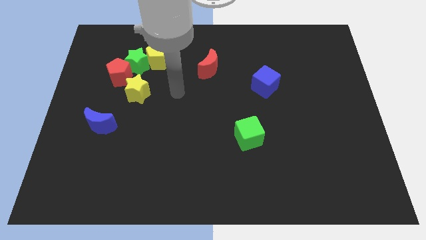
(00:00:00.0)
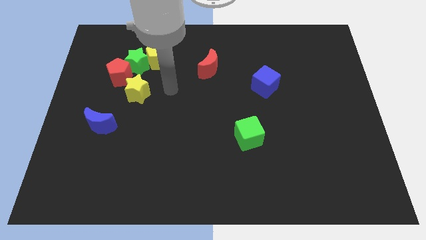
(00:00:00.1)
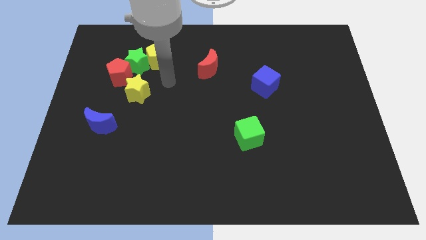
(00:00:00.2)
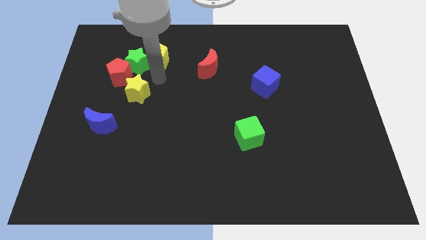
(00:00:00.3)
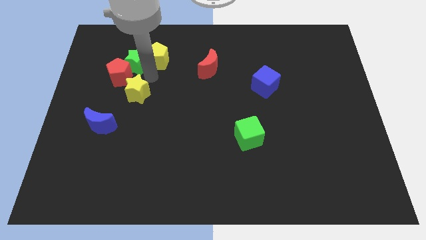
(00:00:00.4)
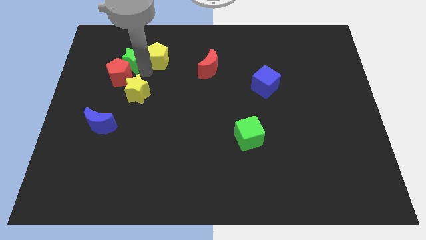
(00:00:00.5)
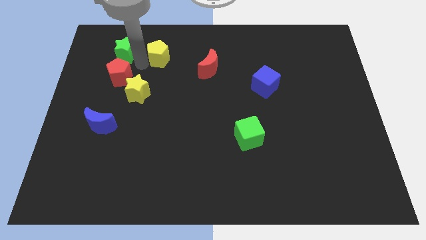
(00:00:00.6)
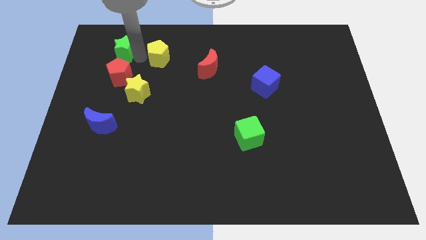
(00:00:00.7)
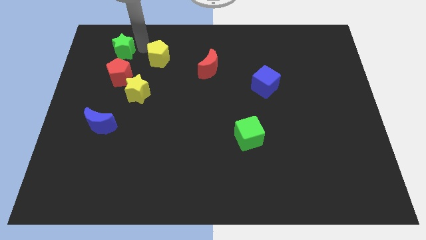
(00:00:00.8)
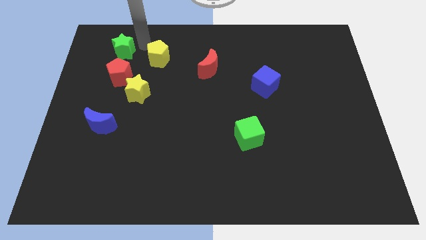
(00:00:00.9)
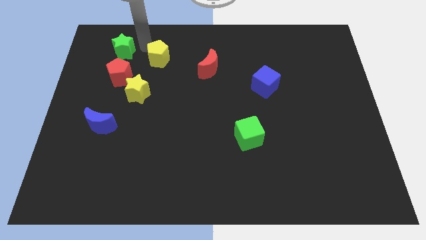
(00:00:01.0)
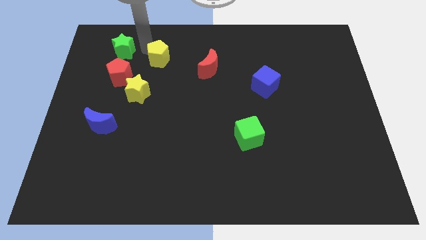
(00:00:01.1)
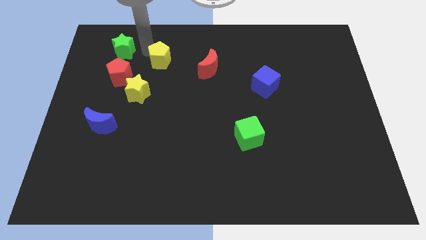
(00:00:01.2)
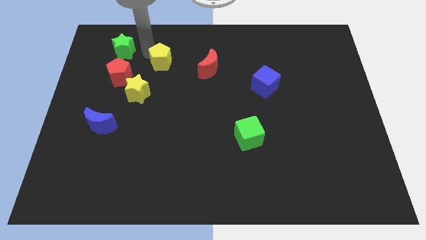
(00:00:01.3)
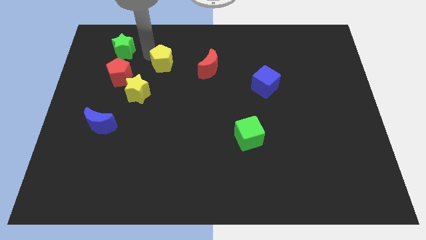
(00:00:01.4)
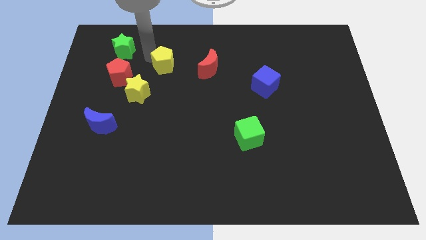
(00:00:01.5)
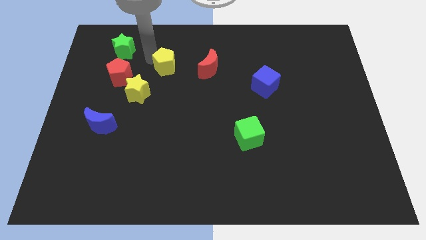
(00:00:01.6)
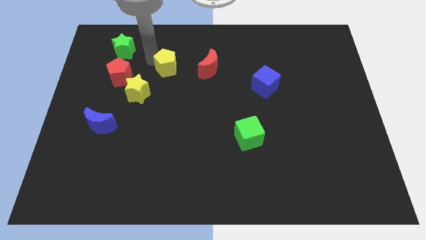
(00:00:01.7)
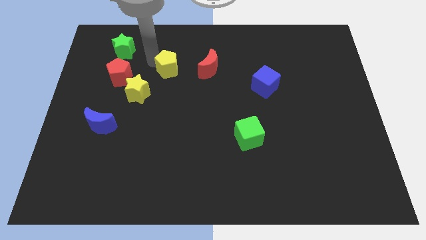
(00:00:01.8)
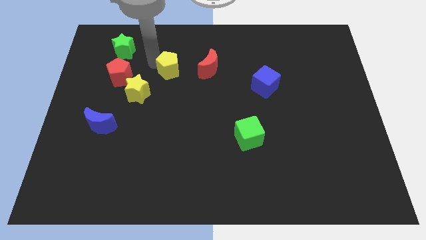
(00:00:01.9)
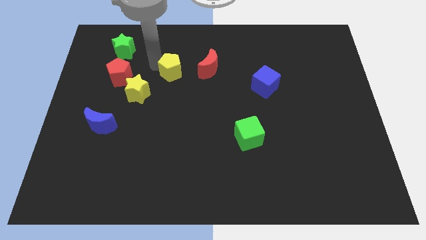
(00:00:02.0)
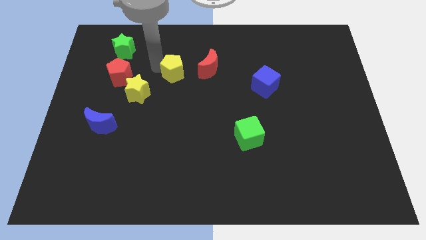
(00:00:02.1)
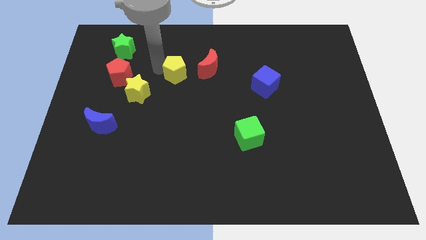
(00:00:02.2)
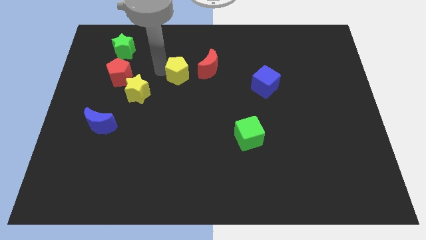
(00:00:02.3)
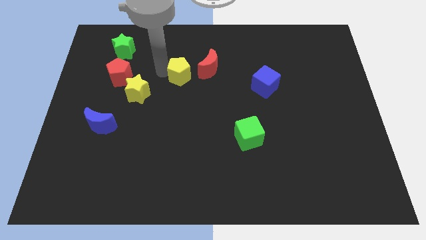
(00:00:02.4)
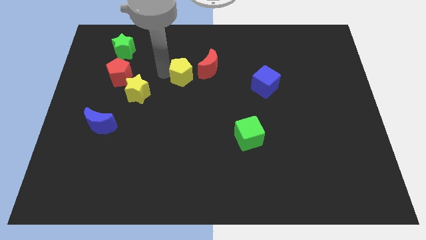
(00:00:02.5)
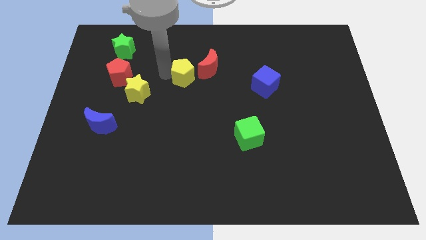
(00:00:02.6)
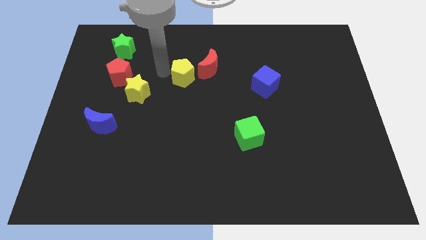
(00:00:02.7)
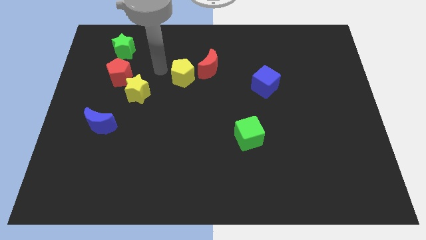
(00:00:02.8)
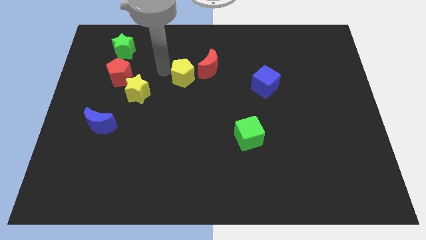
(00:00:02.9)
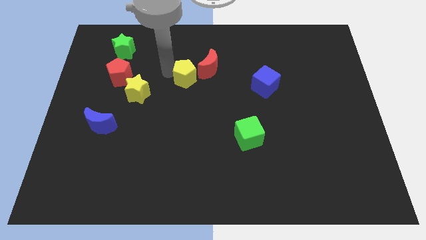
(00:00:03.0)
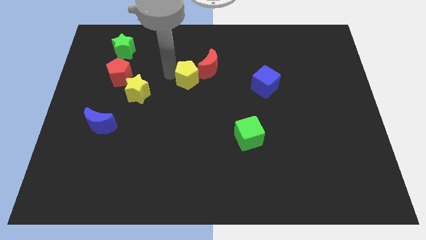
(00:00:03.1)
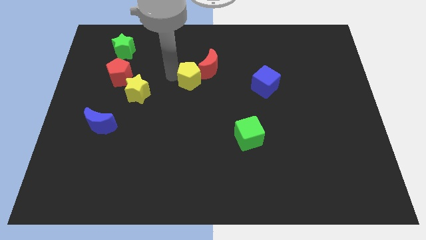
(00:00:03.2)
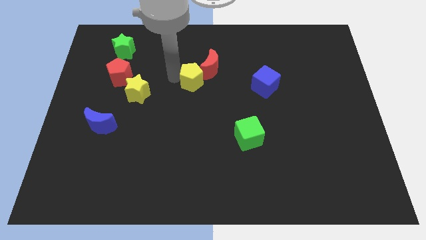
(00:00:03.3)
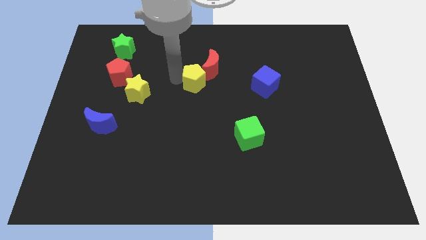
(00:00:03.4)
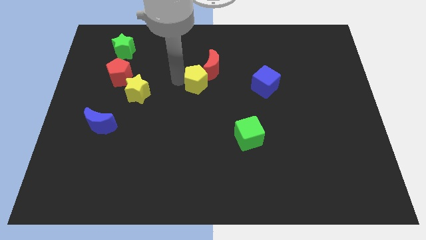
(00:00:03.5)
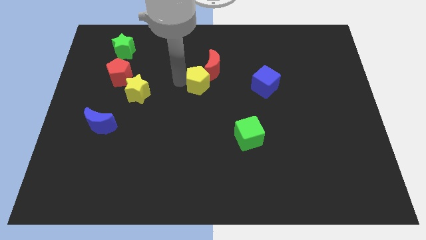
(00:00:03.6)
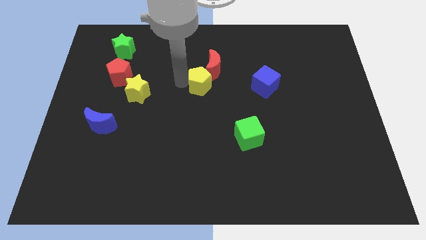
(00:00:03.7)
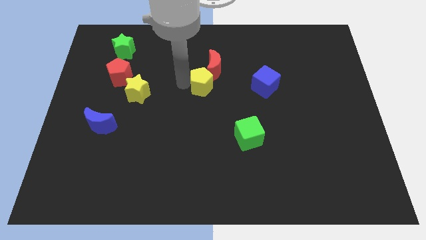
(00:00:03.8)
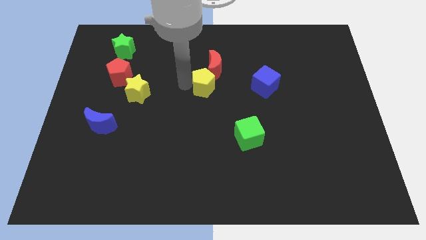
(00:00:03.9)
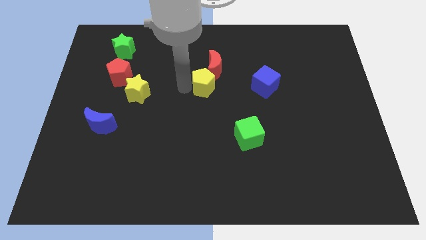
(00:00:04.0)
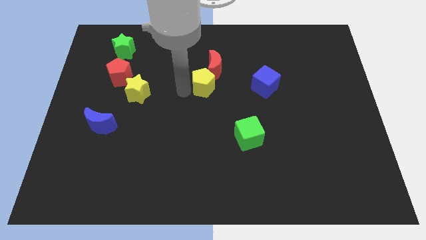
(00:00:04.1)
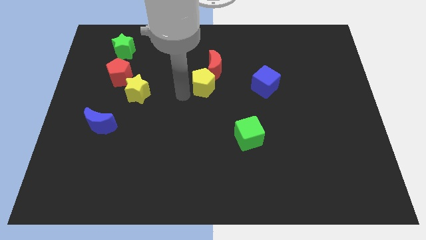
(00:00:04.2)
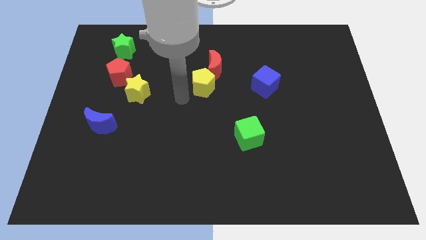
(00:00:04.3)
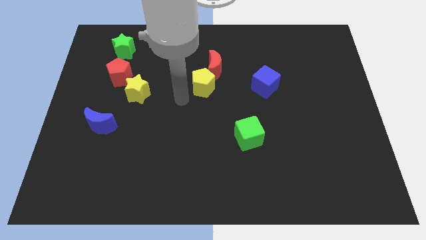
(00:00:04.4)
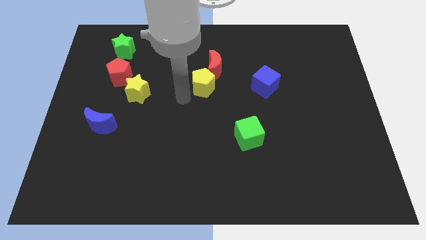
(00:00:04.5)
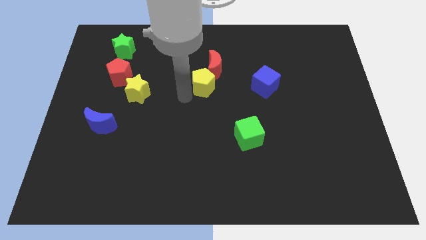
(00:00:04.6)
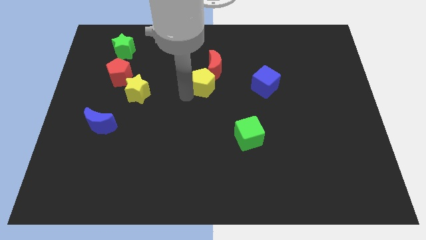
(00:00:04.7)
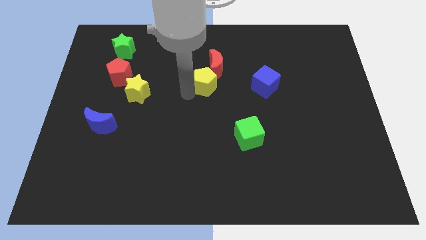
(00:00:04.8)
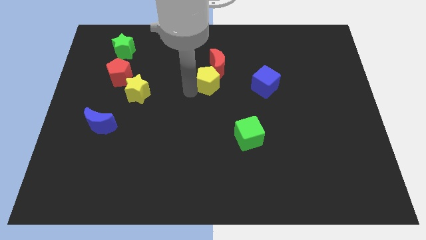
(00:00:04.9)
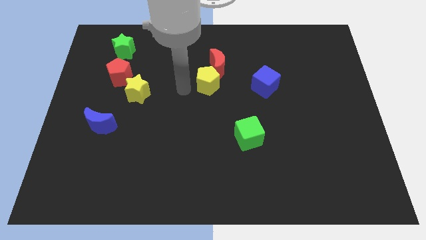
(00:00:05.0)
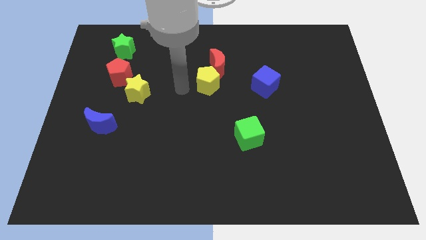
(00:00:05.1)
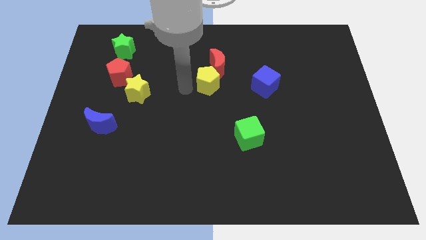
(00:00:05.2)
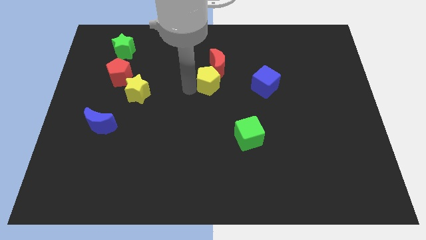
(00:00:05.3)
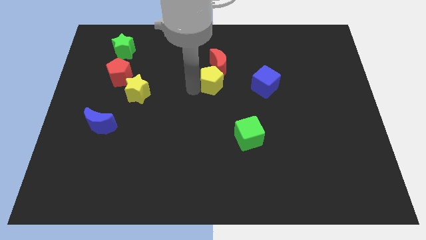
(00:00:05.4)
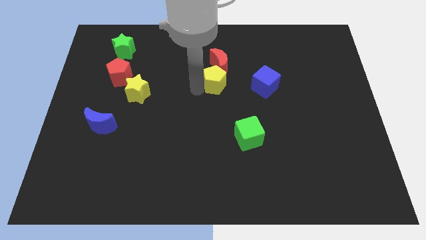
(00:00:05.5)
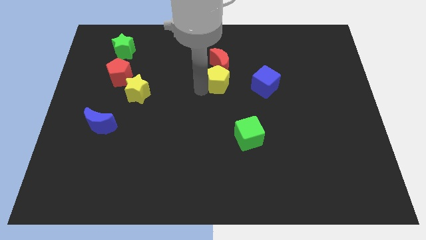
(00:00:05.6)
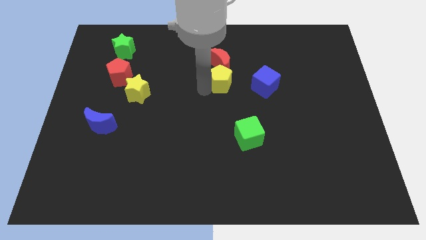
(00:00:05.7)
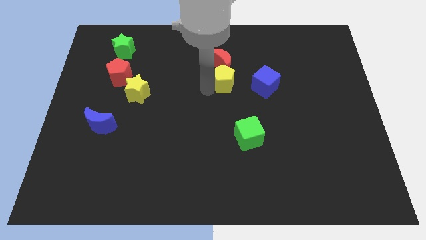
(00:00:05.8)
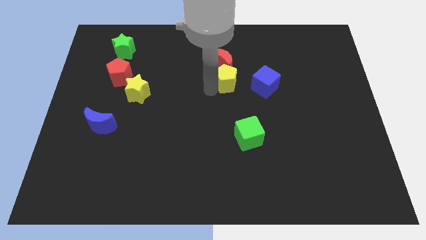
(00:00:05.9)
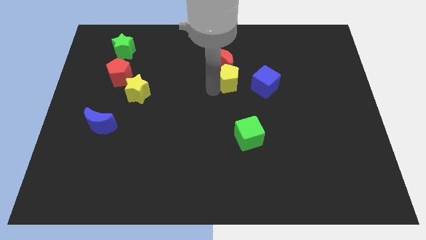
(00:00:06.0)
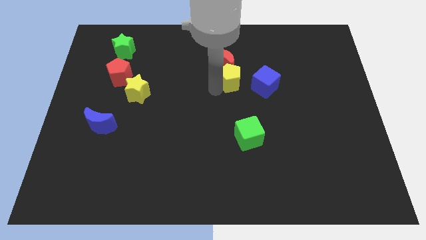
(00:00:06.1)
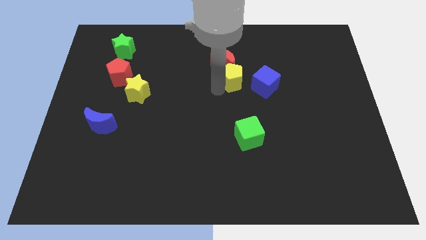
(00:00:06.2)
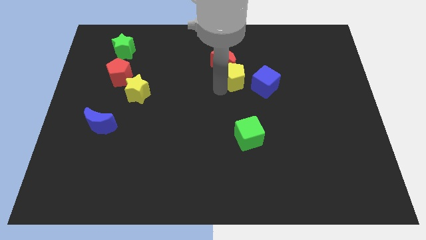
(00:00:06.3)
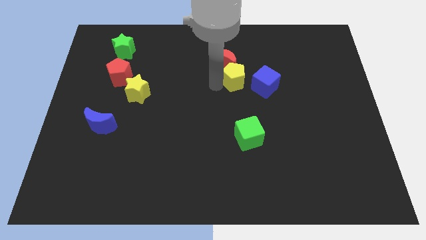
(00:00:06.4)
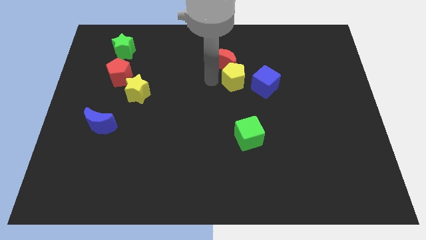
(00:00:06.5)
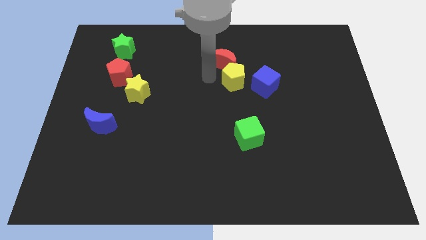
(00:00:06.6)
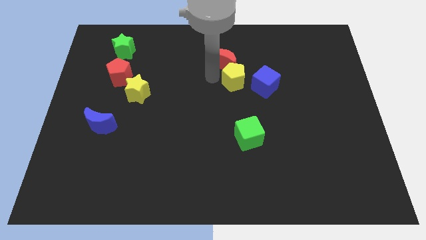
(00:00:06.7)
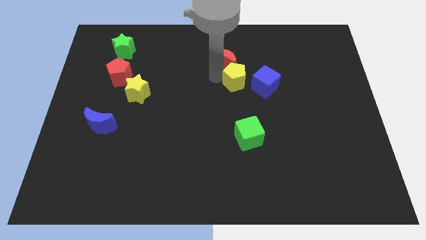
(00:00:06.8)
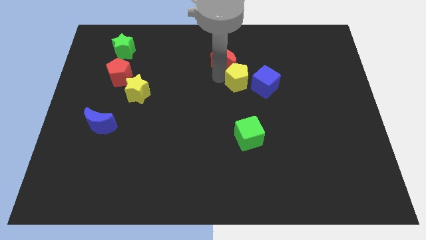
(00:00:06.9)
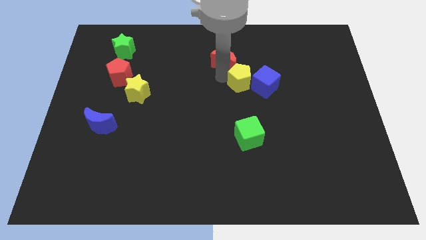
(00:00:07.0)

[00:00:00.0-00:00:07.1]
move the yellow pentagon close to the blue cube

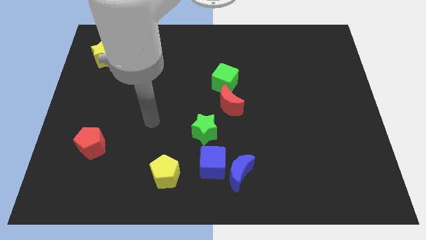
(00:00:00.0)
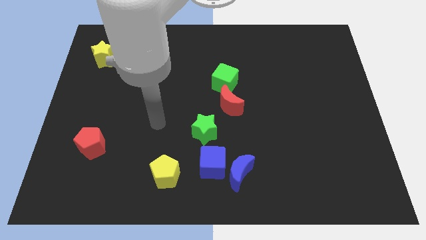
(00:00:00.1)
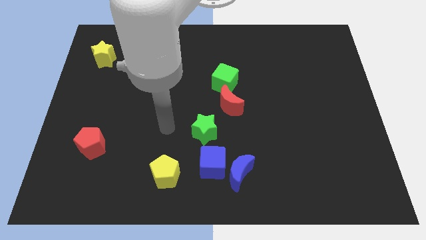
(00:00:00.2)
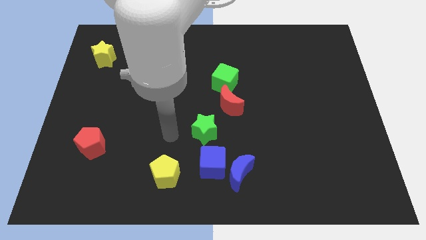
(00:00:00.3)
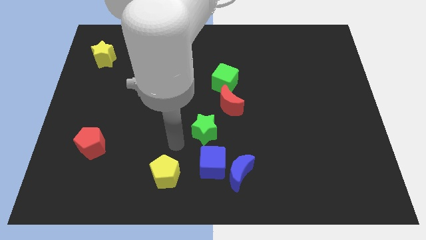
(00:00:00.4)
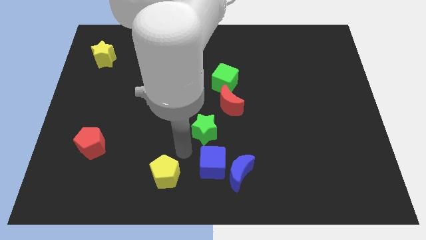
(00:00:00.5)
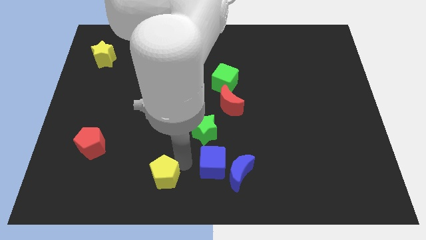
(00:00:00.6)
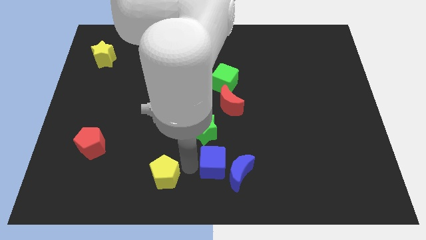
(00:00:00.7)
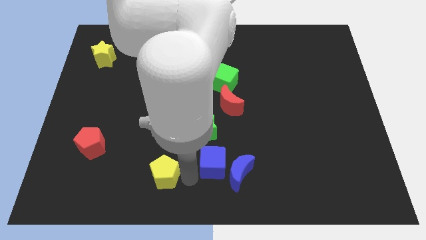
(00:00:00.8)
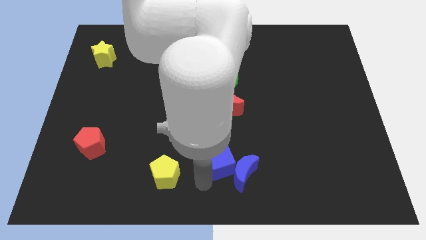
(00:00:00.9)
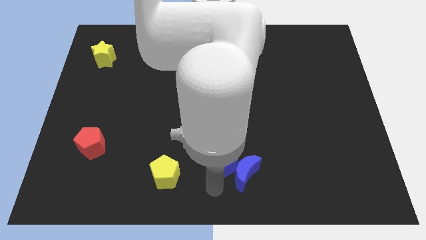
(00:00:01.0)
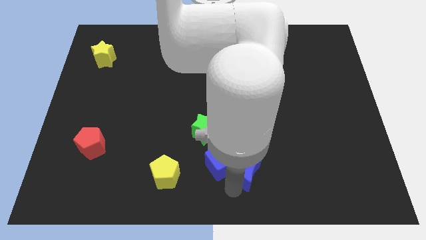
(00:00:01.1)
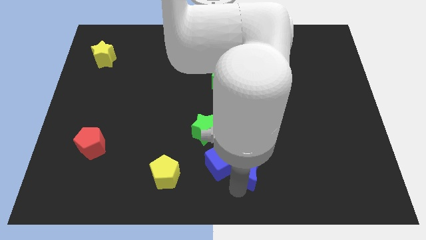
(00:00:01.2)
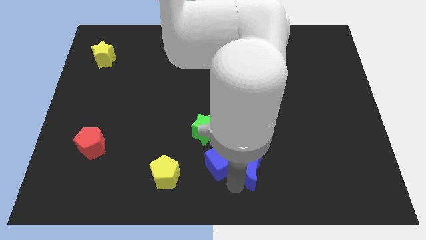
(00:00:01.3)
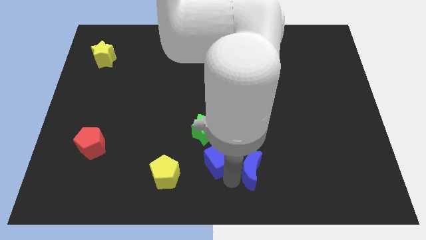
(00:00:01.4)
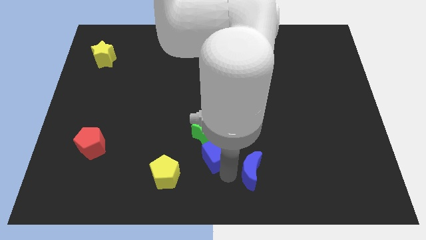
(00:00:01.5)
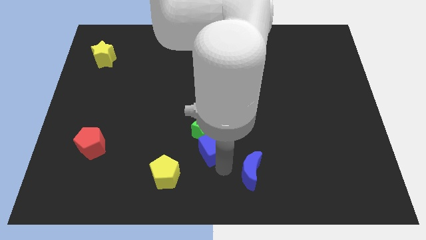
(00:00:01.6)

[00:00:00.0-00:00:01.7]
slide the blue cube close to the green star
